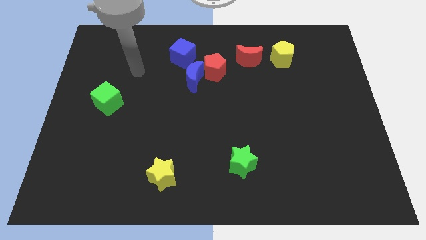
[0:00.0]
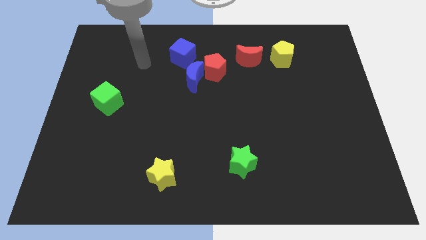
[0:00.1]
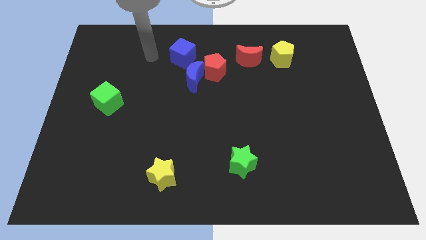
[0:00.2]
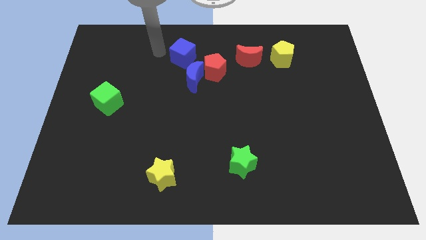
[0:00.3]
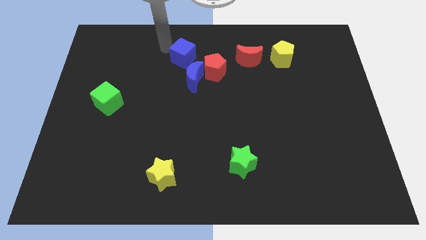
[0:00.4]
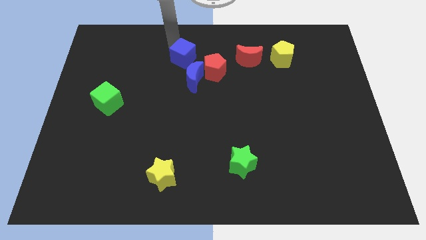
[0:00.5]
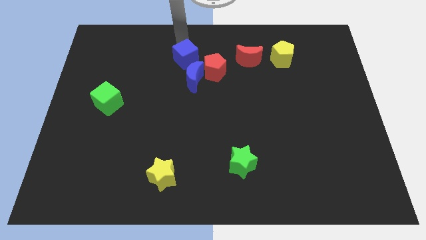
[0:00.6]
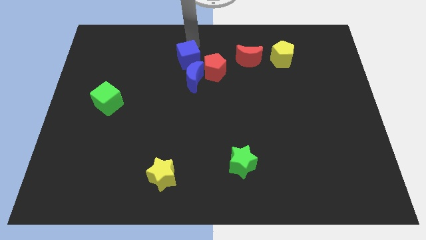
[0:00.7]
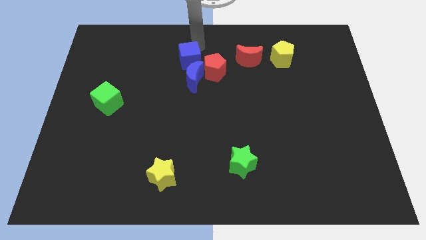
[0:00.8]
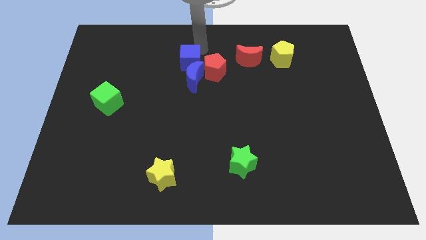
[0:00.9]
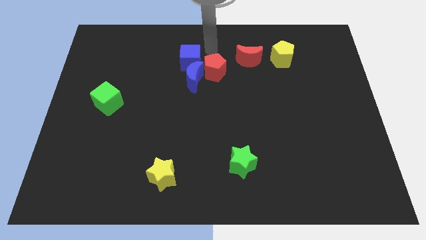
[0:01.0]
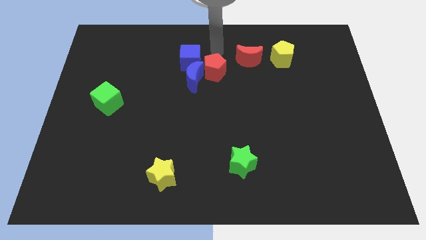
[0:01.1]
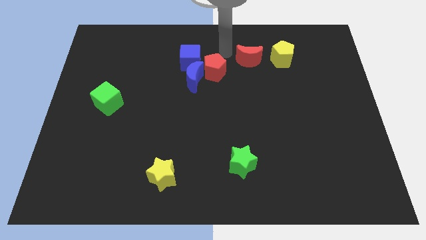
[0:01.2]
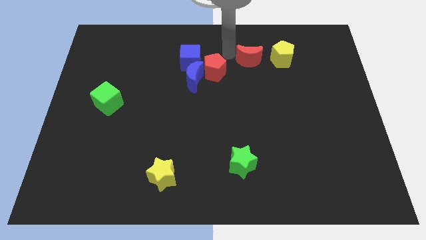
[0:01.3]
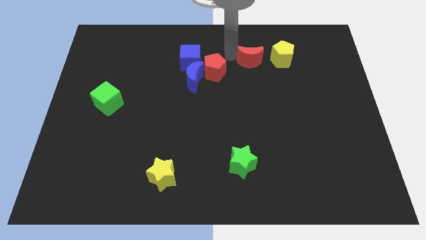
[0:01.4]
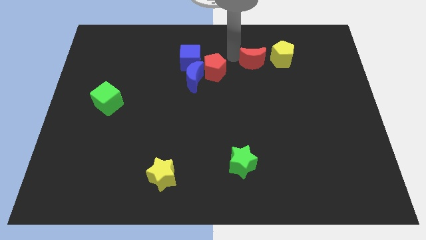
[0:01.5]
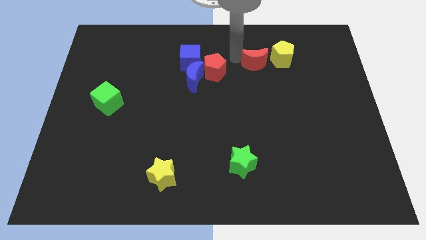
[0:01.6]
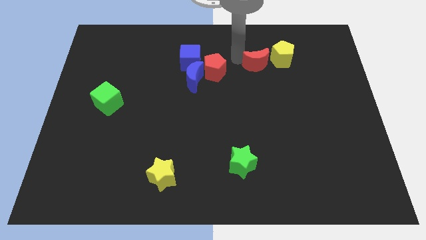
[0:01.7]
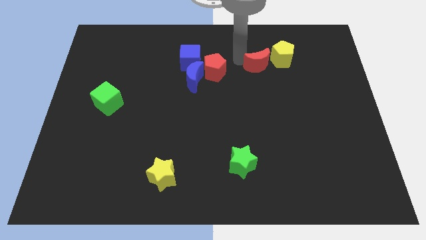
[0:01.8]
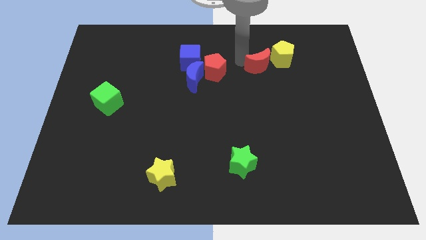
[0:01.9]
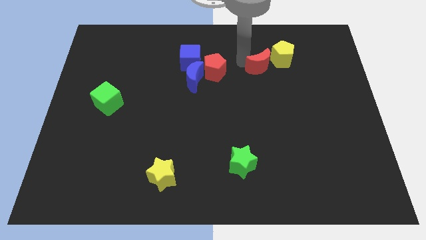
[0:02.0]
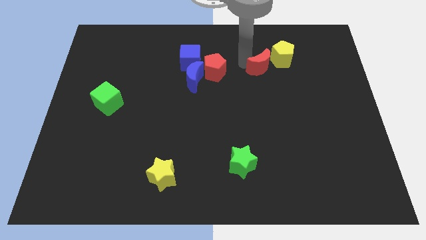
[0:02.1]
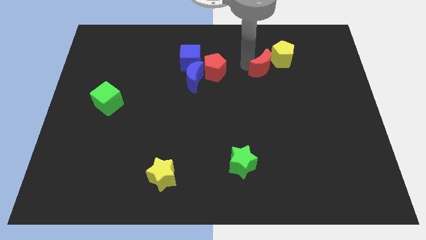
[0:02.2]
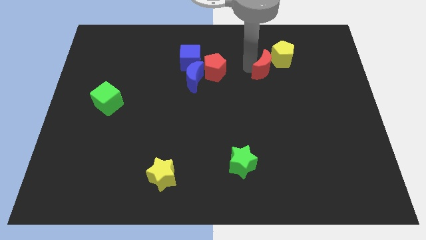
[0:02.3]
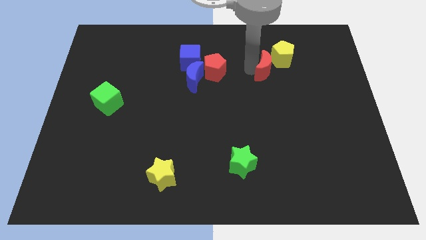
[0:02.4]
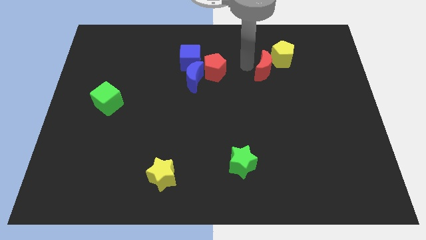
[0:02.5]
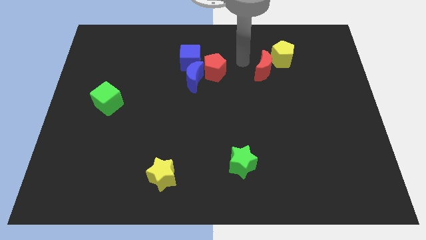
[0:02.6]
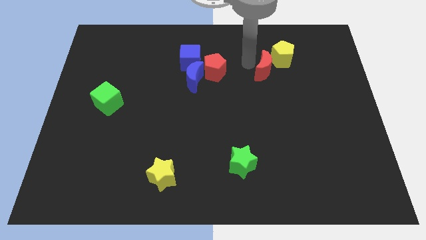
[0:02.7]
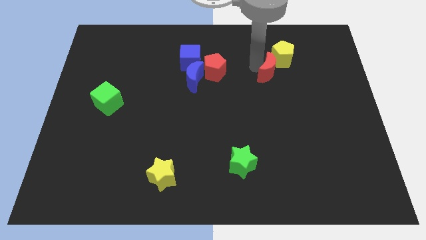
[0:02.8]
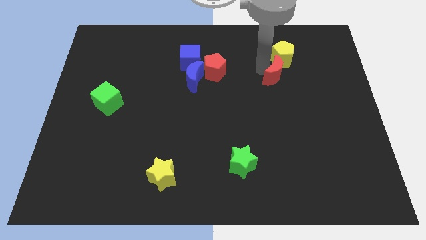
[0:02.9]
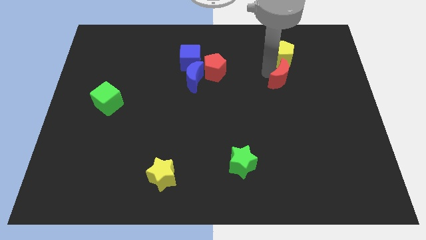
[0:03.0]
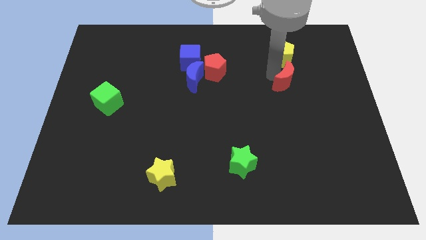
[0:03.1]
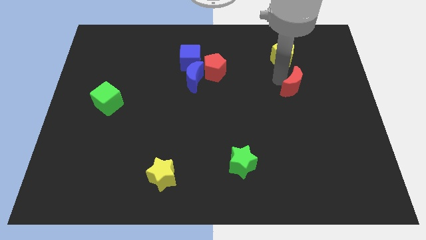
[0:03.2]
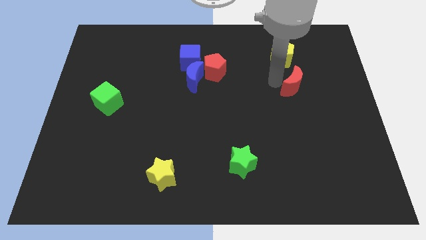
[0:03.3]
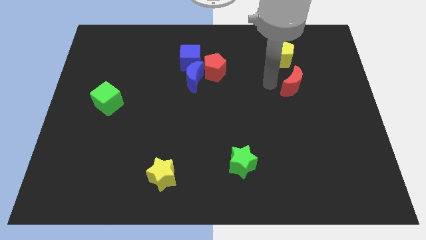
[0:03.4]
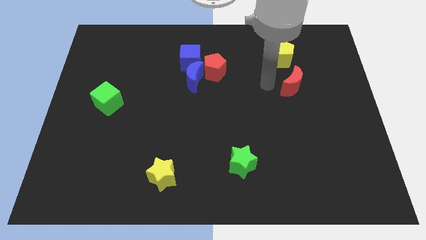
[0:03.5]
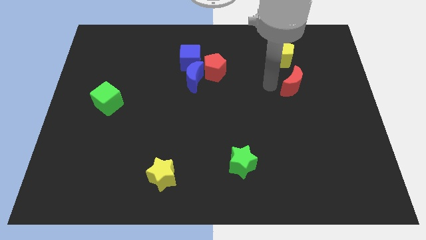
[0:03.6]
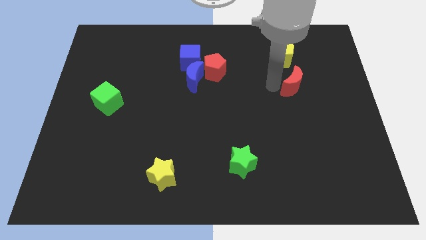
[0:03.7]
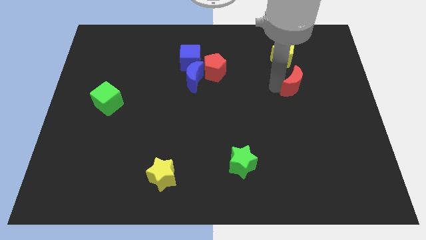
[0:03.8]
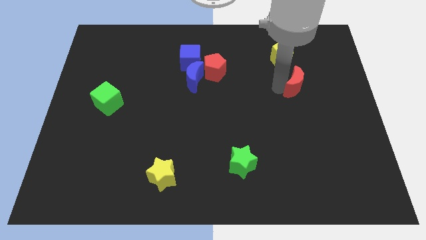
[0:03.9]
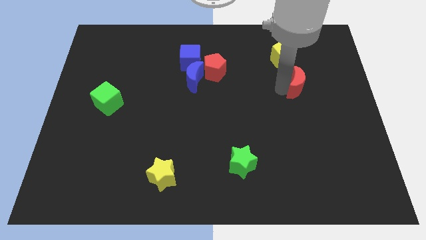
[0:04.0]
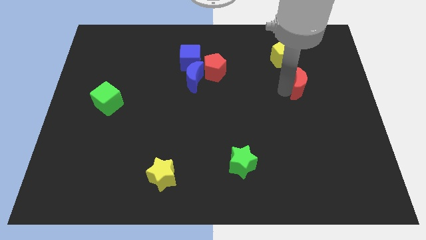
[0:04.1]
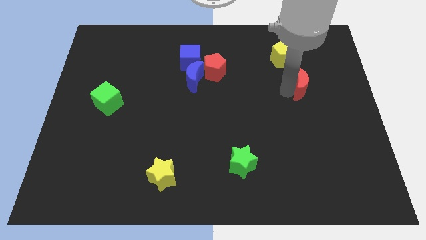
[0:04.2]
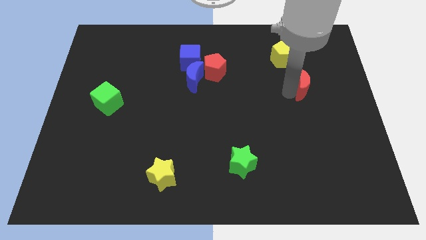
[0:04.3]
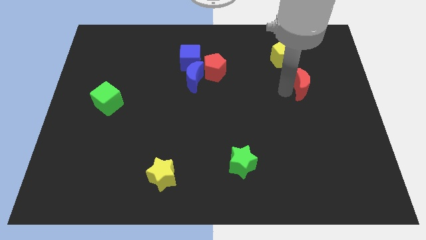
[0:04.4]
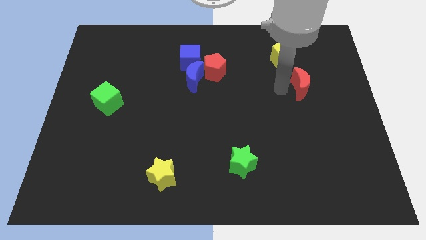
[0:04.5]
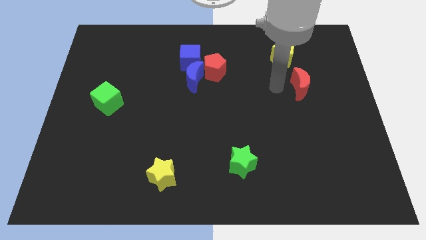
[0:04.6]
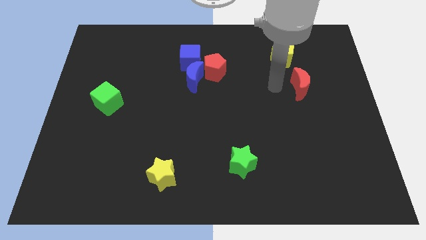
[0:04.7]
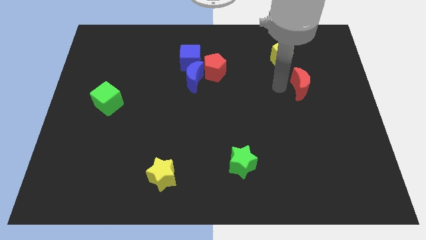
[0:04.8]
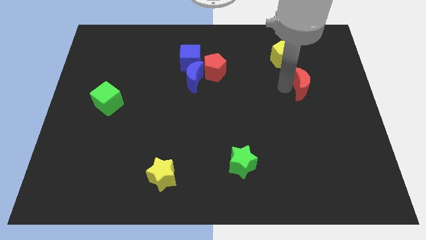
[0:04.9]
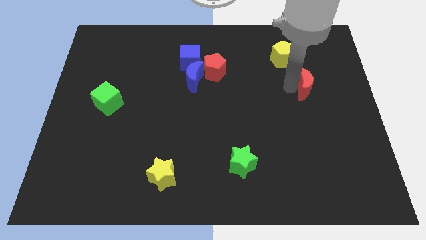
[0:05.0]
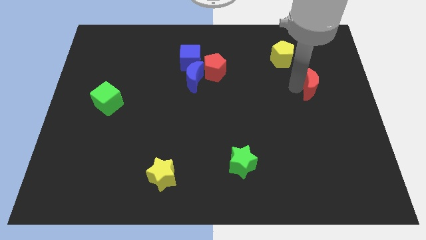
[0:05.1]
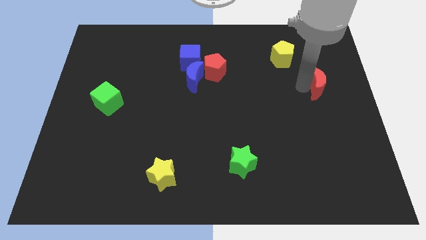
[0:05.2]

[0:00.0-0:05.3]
slide the red moon to the center right

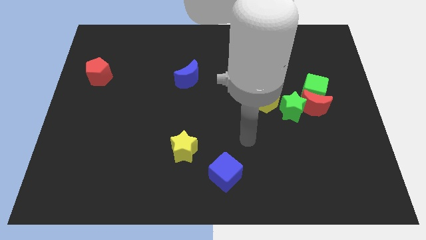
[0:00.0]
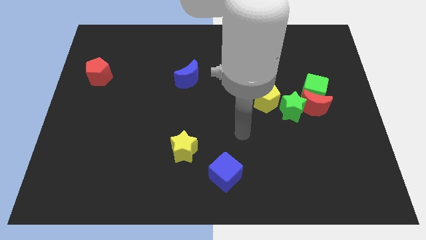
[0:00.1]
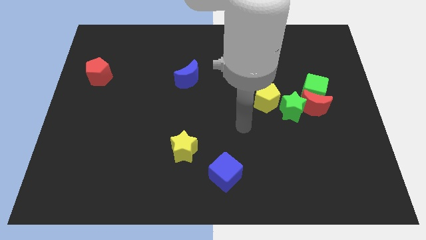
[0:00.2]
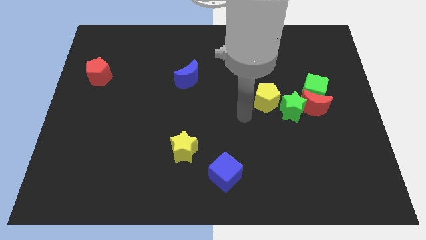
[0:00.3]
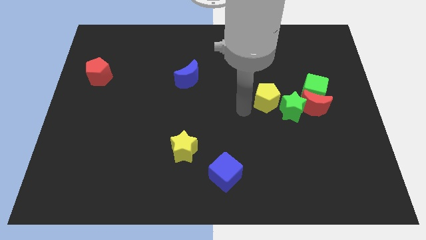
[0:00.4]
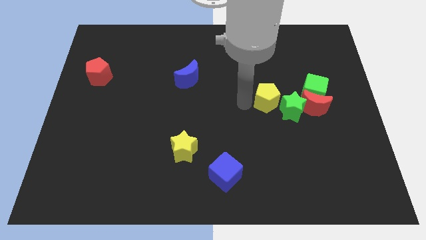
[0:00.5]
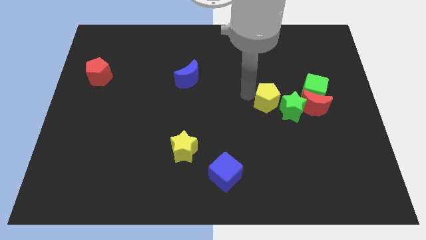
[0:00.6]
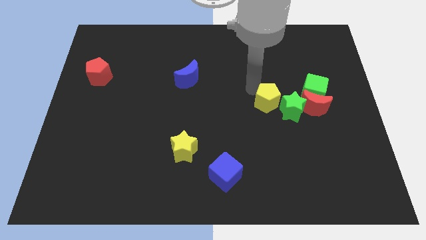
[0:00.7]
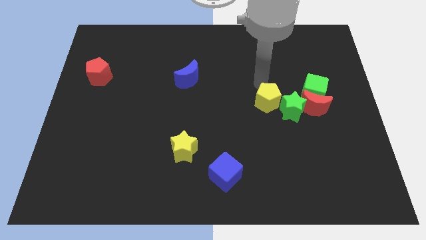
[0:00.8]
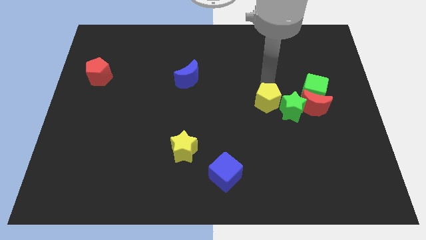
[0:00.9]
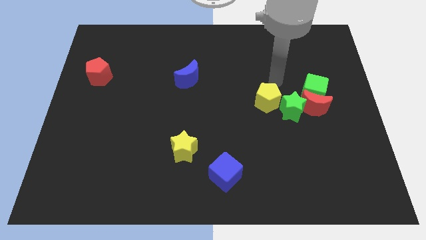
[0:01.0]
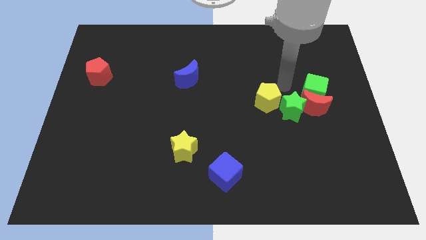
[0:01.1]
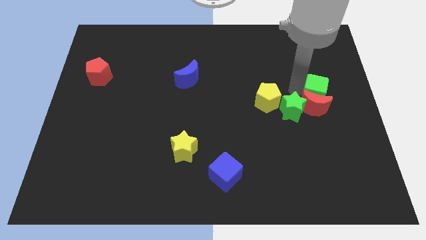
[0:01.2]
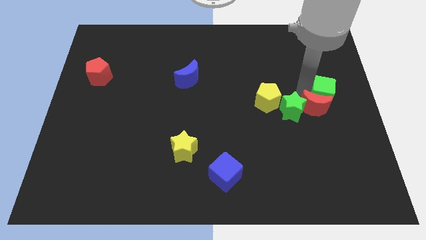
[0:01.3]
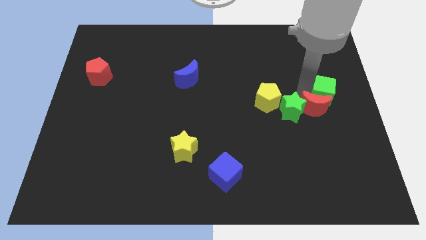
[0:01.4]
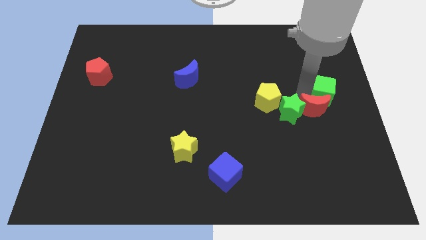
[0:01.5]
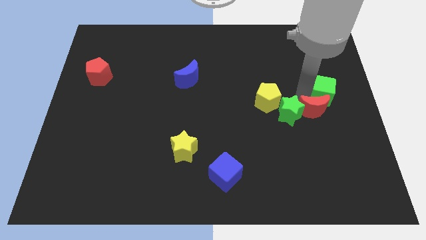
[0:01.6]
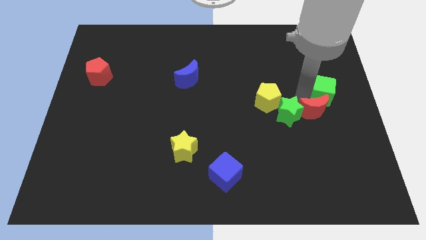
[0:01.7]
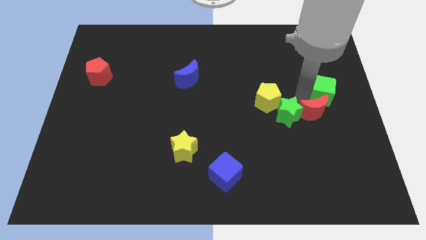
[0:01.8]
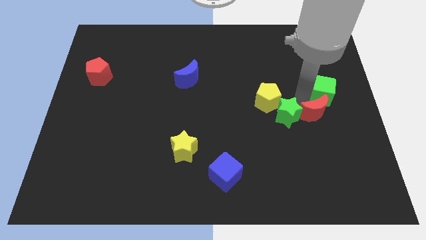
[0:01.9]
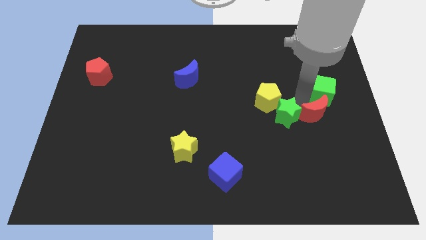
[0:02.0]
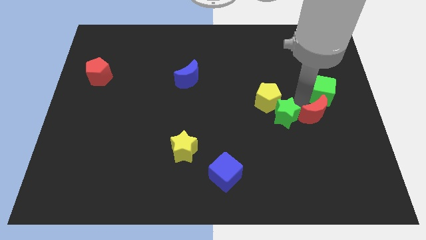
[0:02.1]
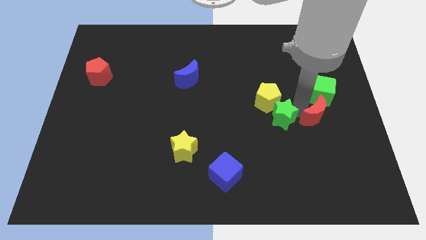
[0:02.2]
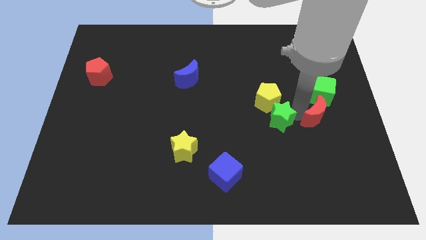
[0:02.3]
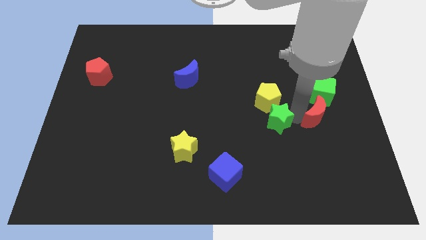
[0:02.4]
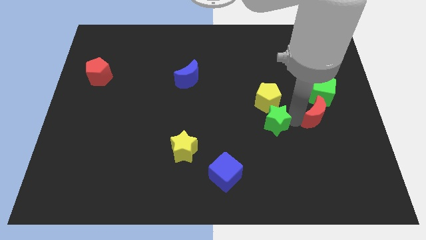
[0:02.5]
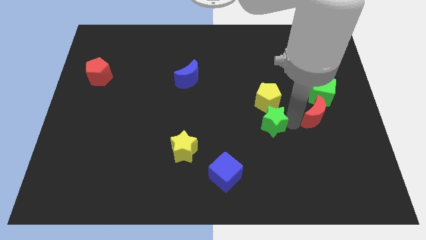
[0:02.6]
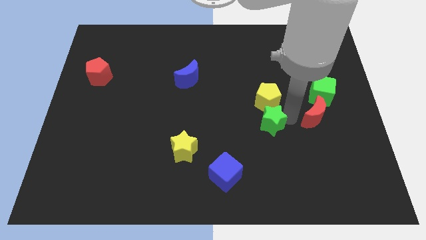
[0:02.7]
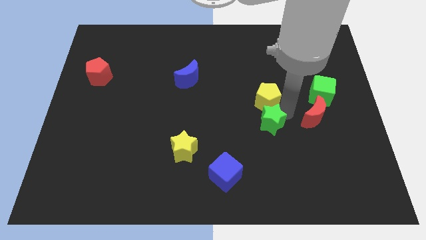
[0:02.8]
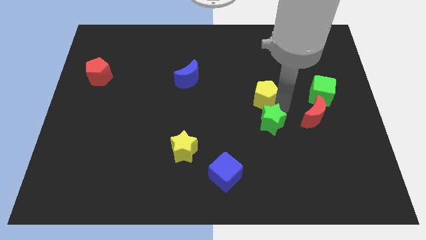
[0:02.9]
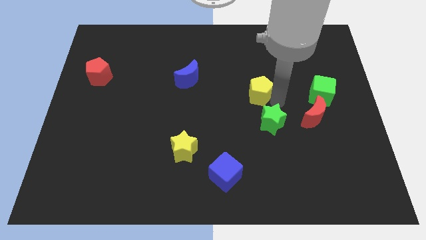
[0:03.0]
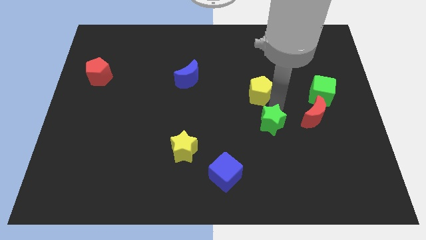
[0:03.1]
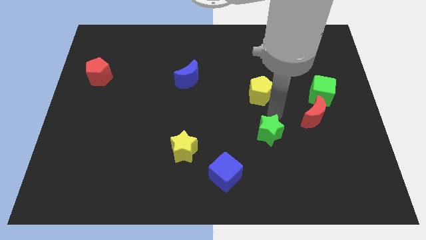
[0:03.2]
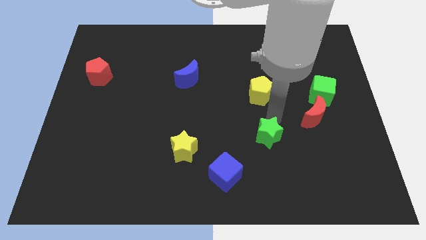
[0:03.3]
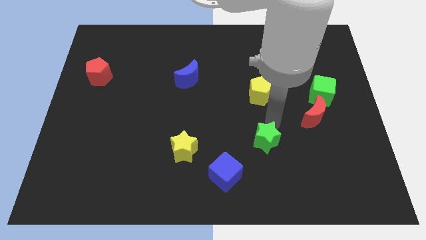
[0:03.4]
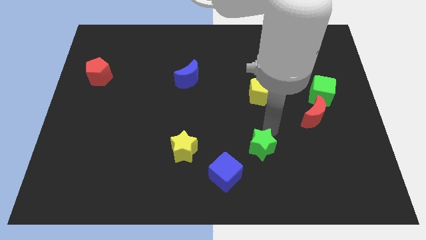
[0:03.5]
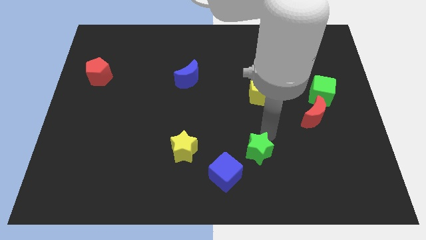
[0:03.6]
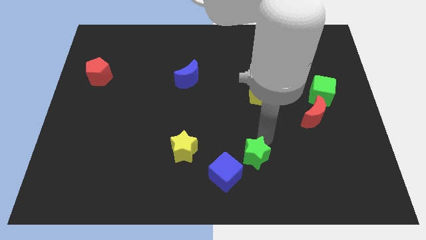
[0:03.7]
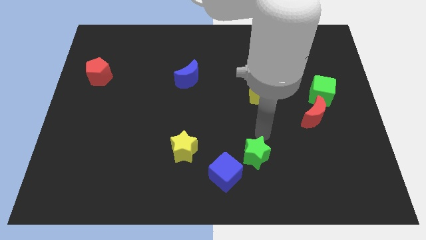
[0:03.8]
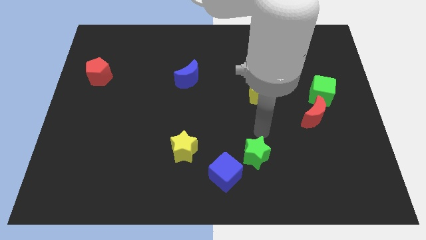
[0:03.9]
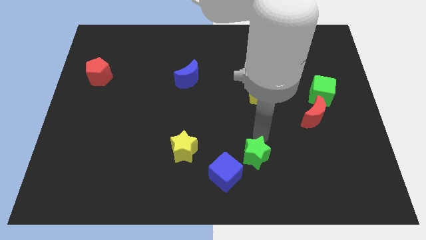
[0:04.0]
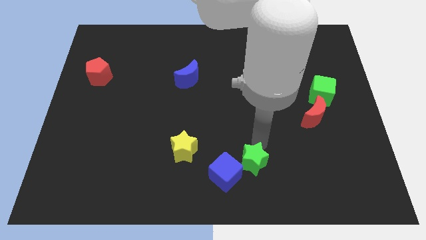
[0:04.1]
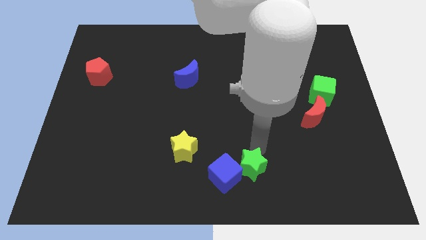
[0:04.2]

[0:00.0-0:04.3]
put the green star to the bottom side
